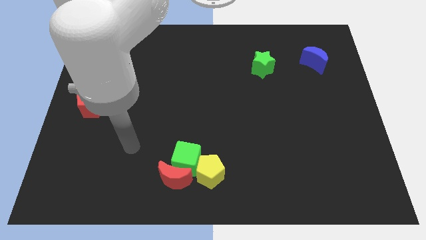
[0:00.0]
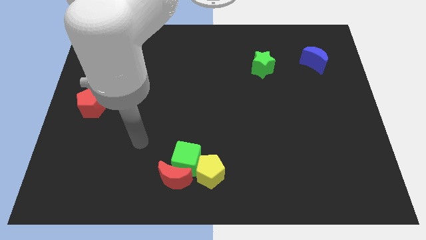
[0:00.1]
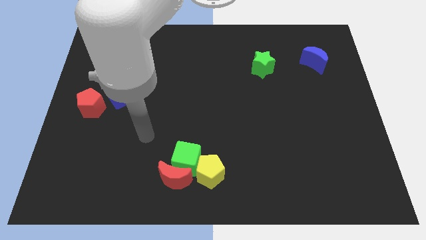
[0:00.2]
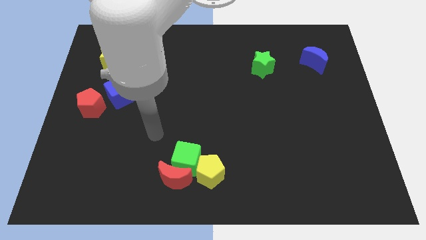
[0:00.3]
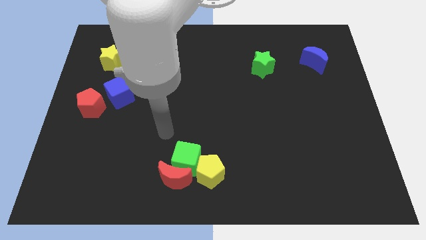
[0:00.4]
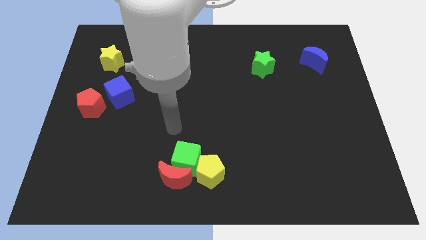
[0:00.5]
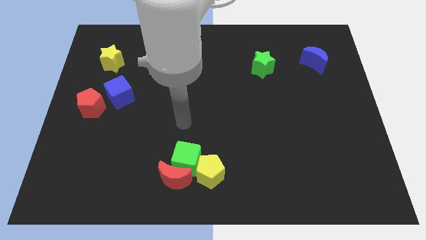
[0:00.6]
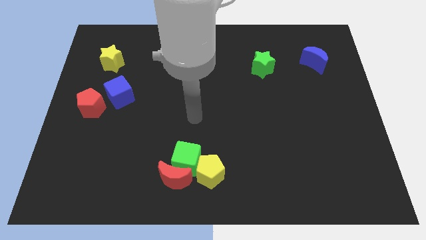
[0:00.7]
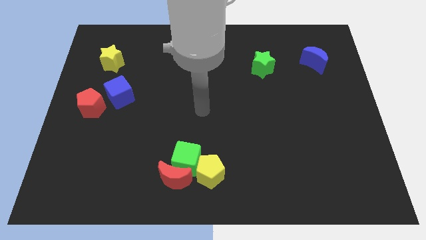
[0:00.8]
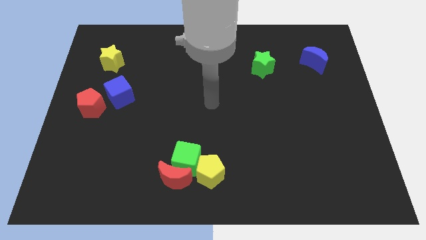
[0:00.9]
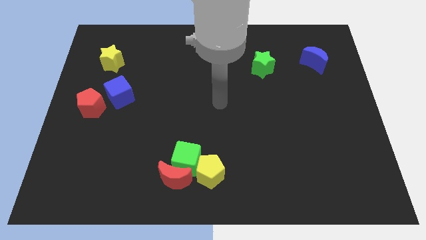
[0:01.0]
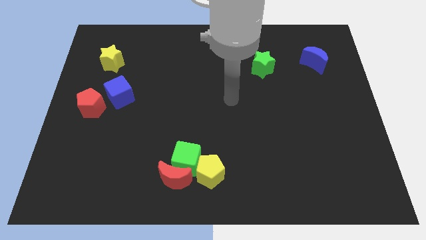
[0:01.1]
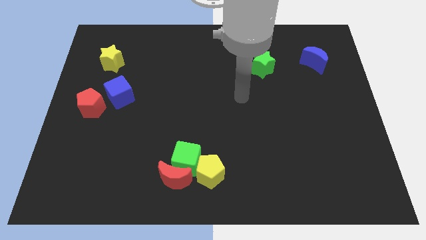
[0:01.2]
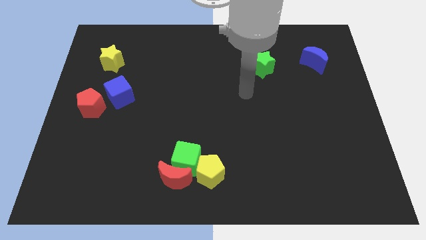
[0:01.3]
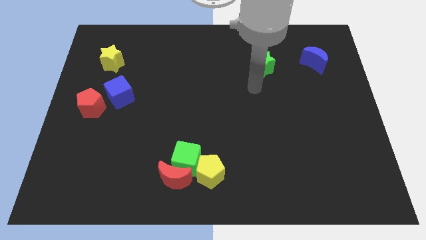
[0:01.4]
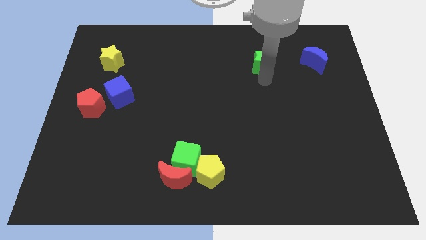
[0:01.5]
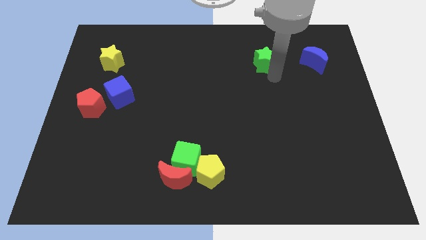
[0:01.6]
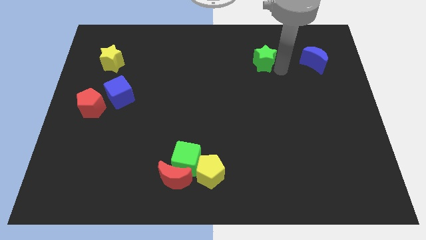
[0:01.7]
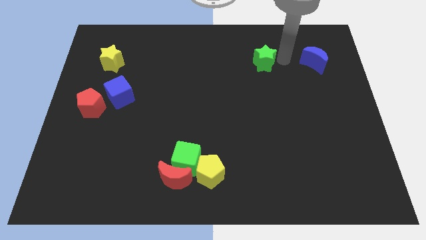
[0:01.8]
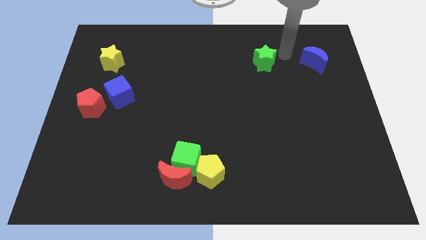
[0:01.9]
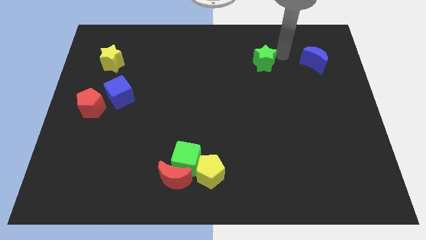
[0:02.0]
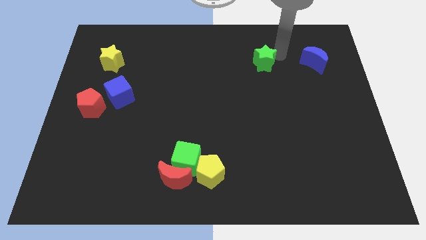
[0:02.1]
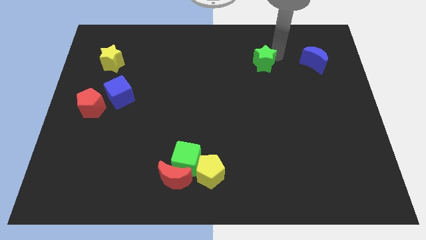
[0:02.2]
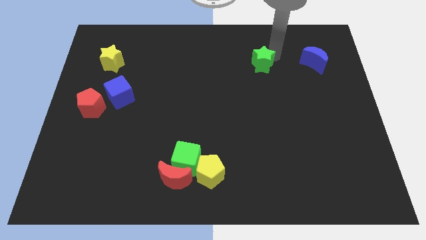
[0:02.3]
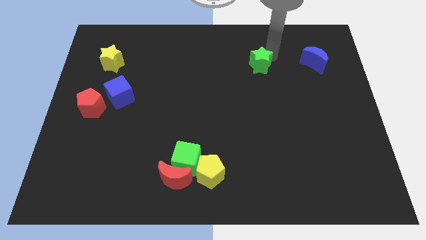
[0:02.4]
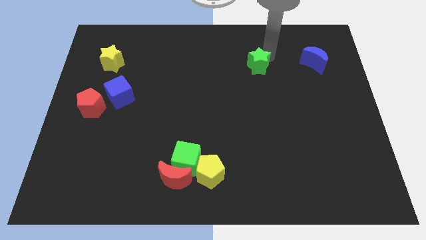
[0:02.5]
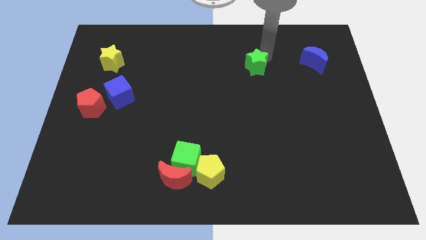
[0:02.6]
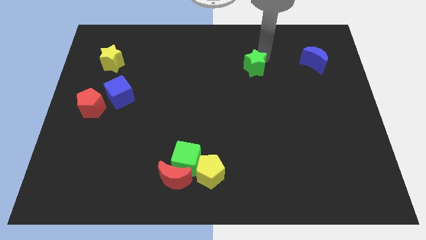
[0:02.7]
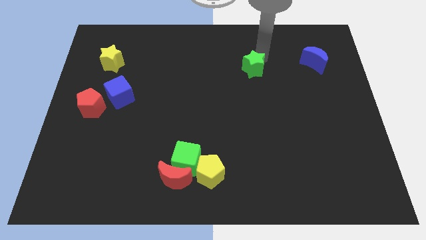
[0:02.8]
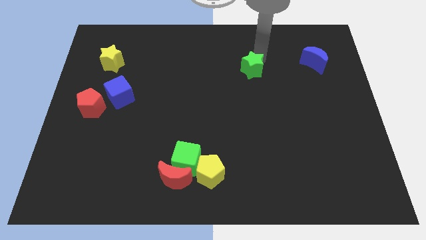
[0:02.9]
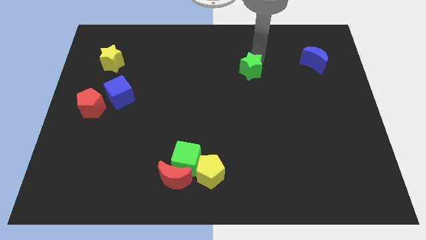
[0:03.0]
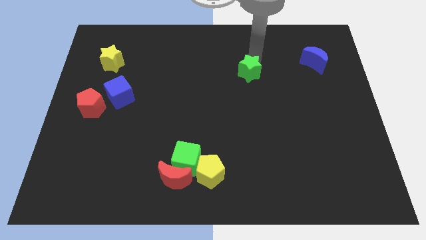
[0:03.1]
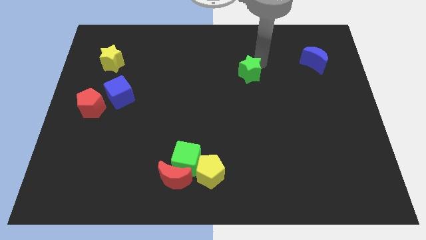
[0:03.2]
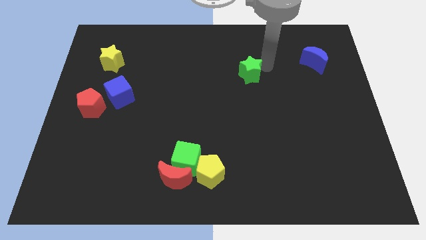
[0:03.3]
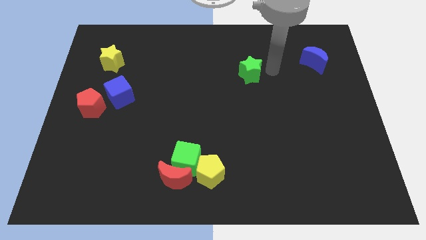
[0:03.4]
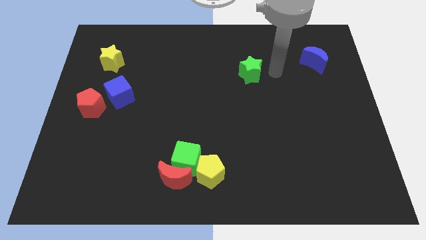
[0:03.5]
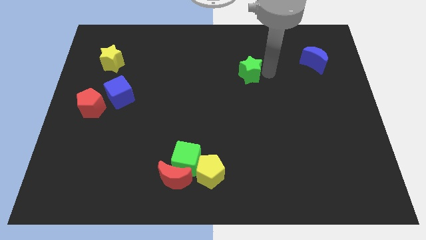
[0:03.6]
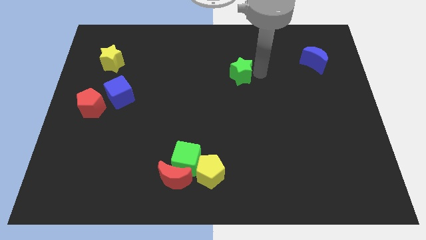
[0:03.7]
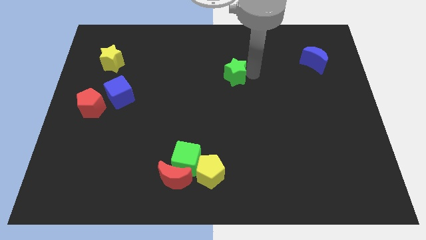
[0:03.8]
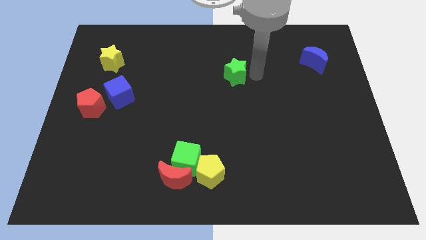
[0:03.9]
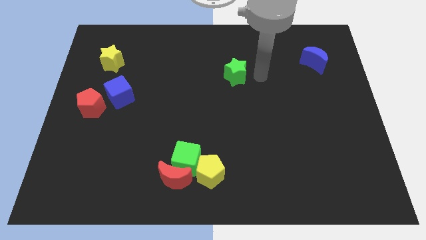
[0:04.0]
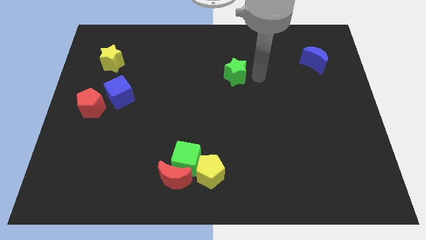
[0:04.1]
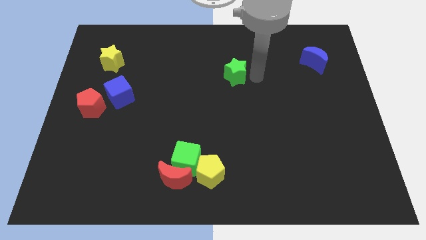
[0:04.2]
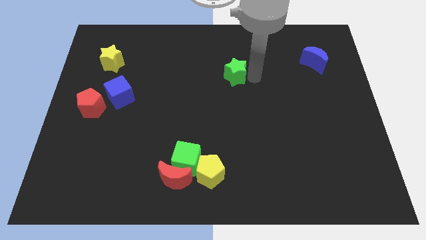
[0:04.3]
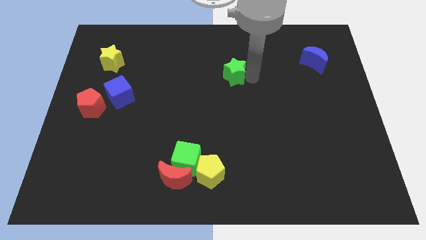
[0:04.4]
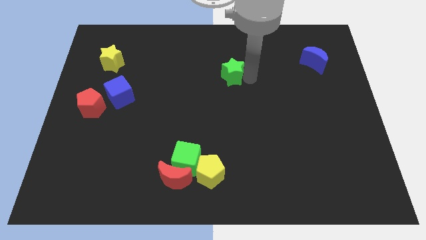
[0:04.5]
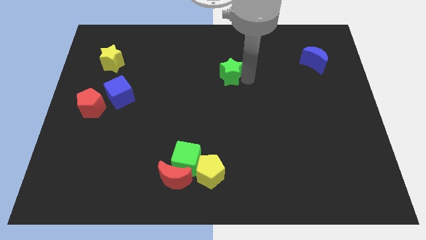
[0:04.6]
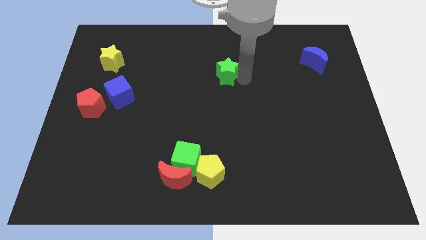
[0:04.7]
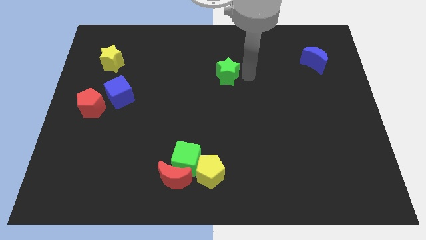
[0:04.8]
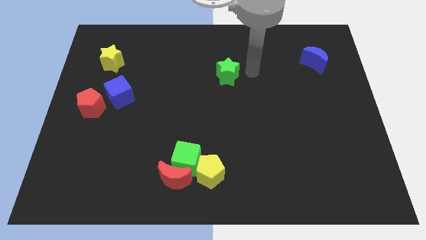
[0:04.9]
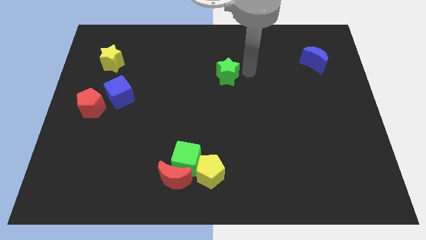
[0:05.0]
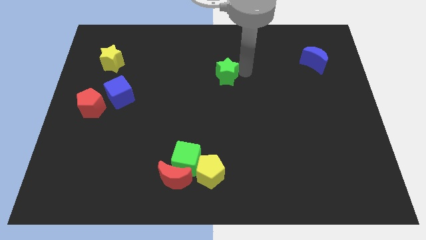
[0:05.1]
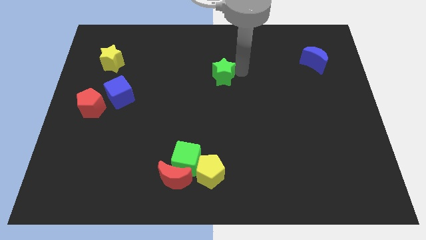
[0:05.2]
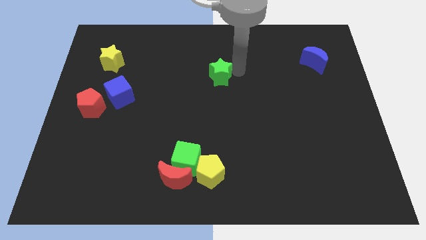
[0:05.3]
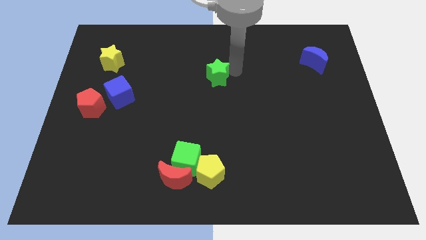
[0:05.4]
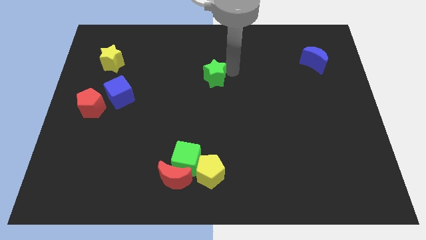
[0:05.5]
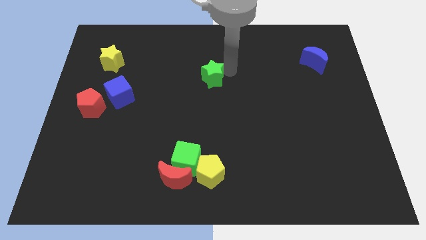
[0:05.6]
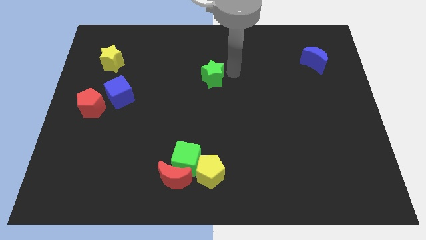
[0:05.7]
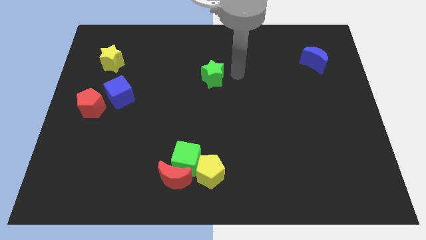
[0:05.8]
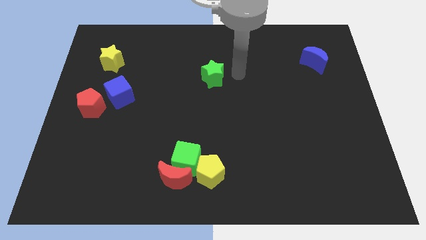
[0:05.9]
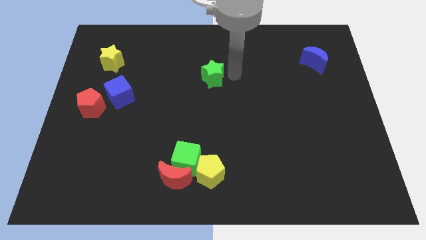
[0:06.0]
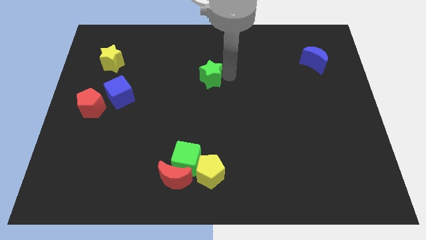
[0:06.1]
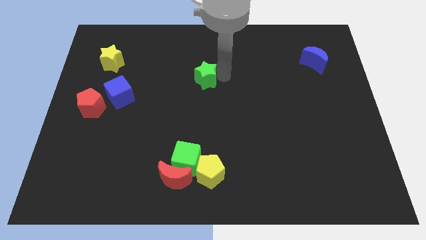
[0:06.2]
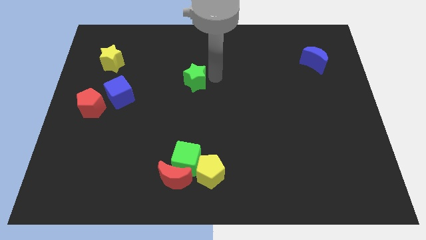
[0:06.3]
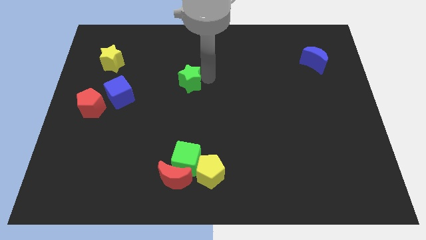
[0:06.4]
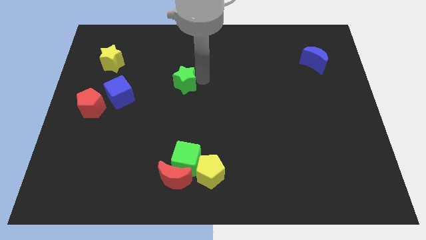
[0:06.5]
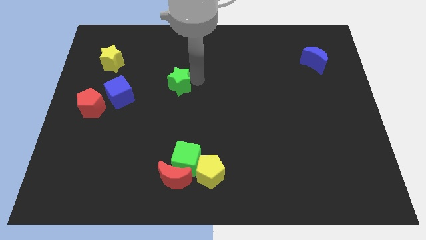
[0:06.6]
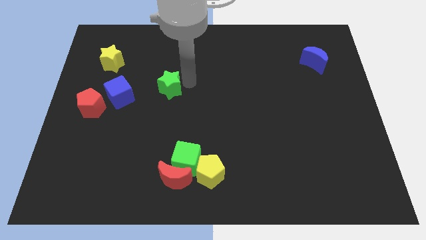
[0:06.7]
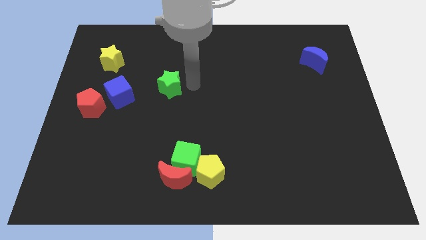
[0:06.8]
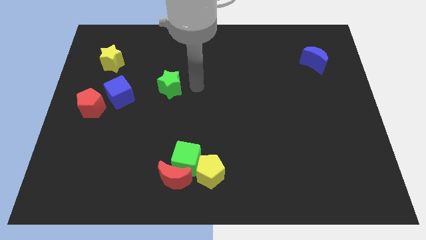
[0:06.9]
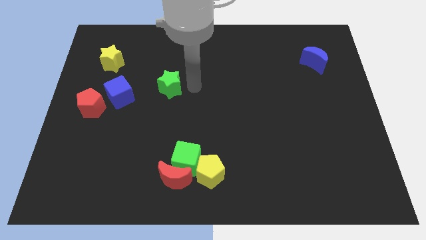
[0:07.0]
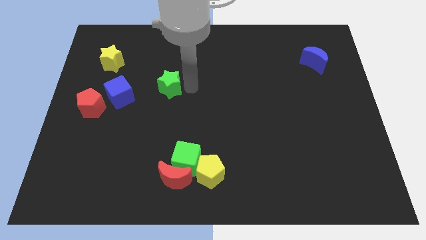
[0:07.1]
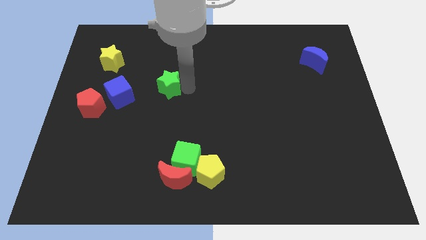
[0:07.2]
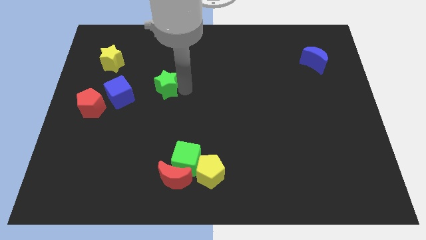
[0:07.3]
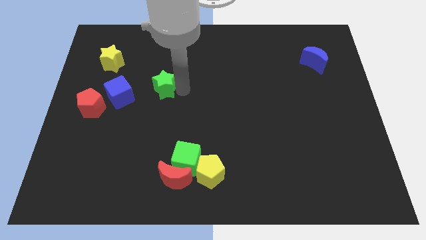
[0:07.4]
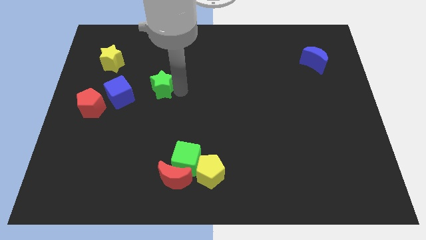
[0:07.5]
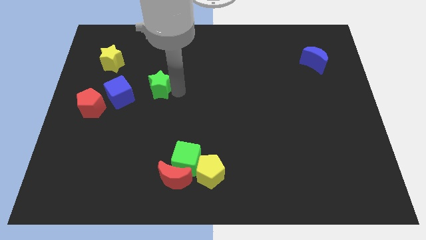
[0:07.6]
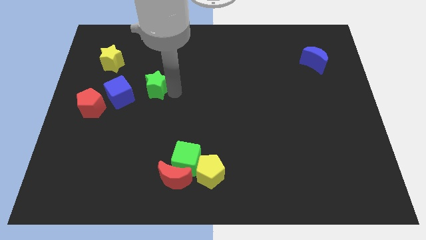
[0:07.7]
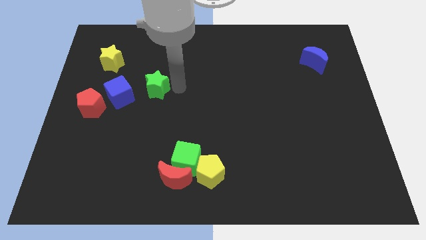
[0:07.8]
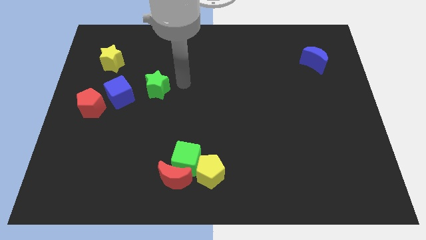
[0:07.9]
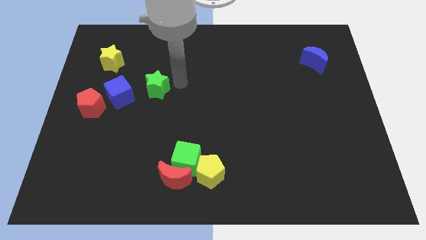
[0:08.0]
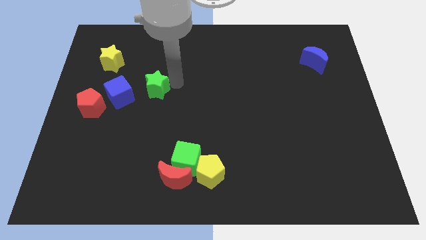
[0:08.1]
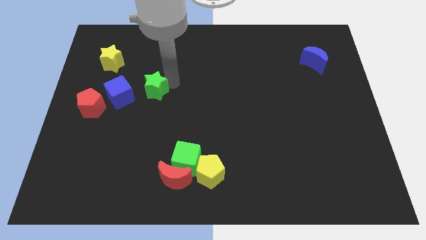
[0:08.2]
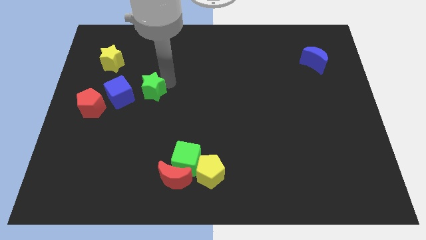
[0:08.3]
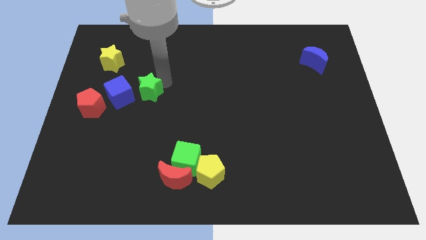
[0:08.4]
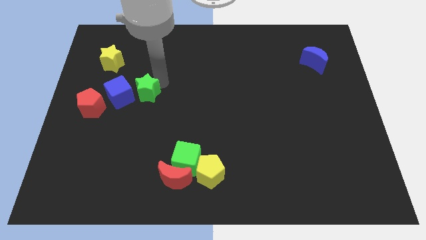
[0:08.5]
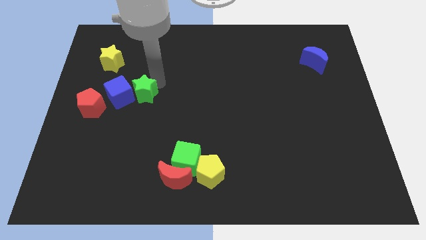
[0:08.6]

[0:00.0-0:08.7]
move the green star to the blue cube
